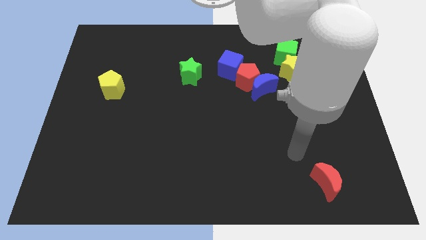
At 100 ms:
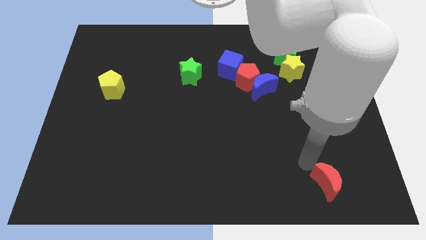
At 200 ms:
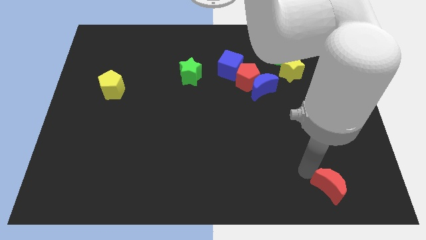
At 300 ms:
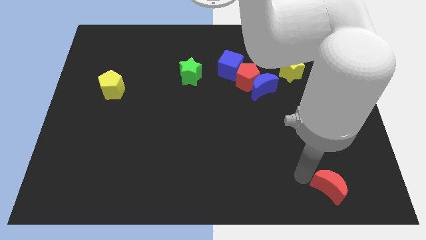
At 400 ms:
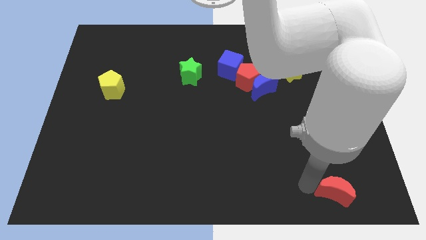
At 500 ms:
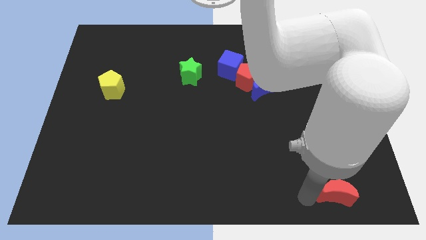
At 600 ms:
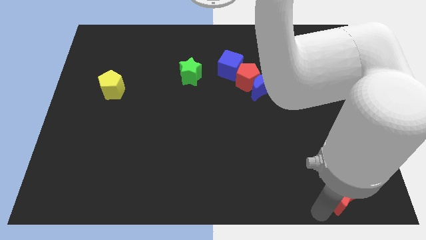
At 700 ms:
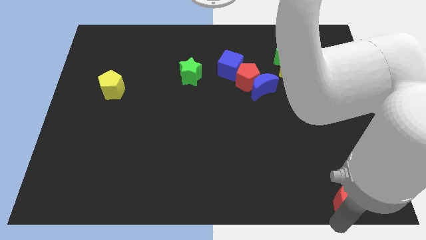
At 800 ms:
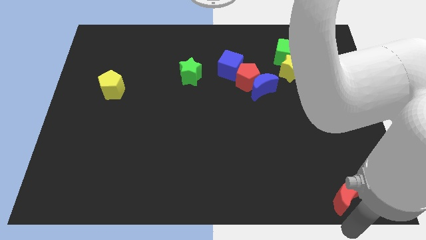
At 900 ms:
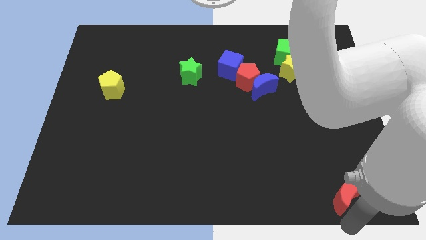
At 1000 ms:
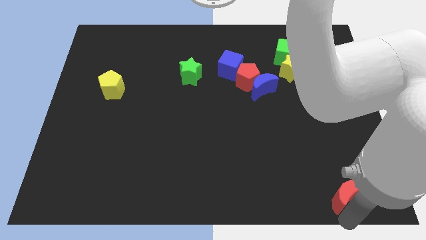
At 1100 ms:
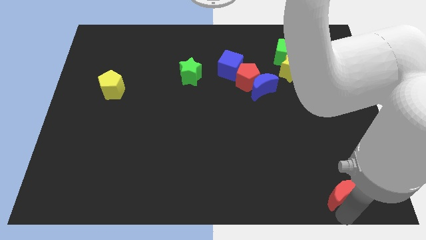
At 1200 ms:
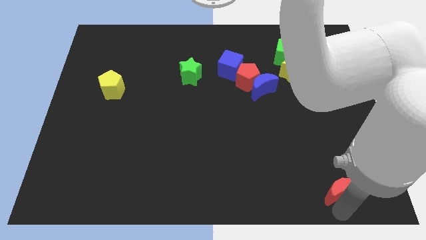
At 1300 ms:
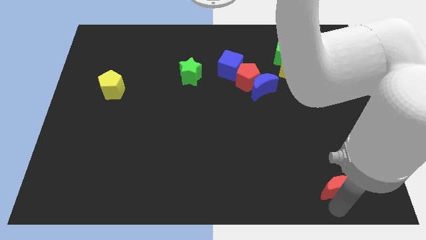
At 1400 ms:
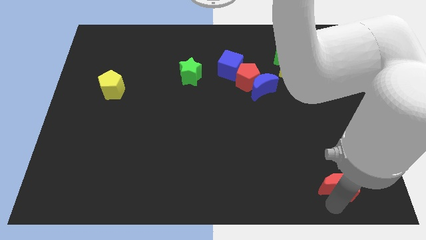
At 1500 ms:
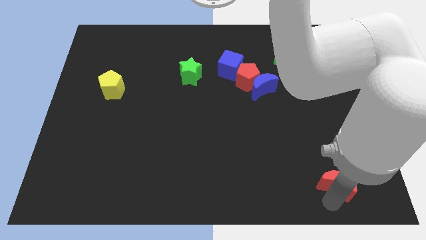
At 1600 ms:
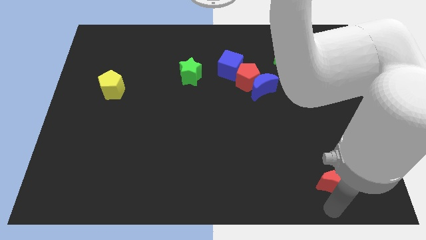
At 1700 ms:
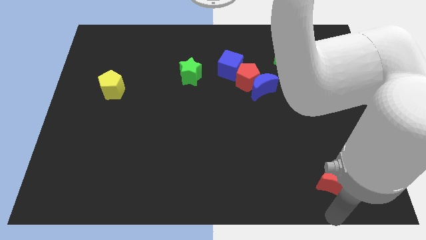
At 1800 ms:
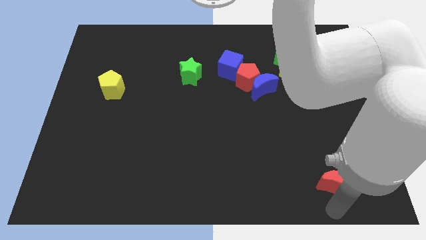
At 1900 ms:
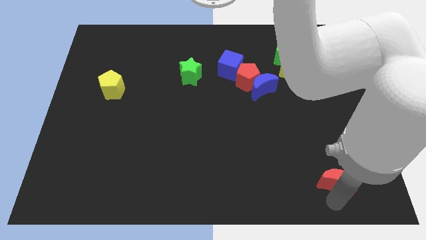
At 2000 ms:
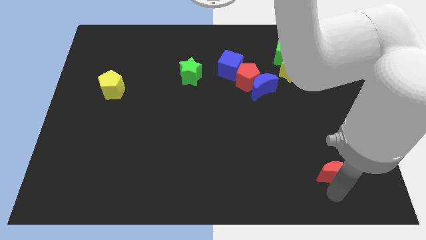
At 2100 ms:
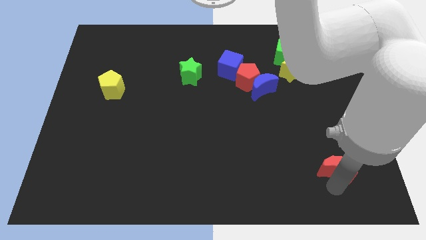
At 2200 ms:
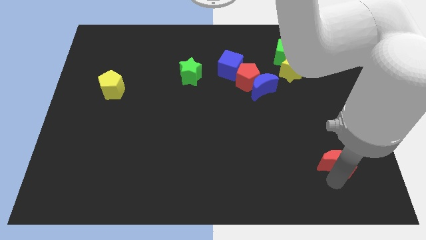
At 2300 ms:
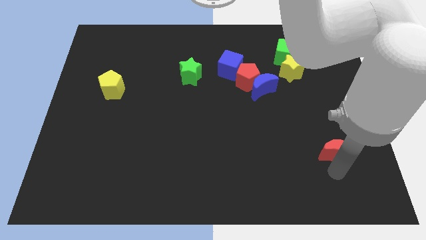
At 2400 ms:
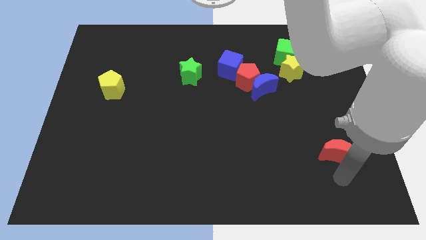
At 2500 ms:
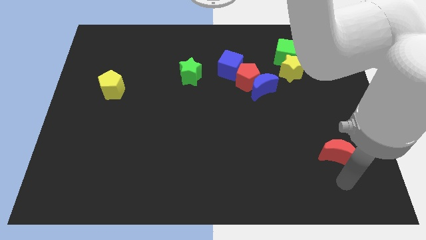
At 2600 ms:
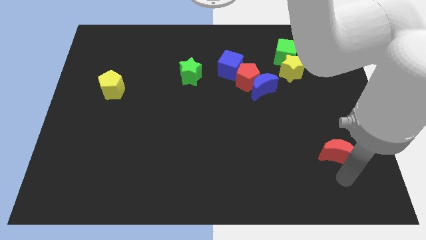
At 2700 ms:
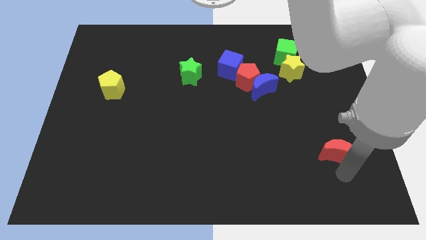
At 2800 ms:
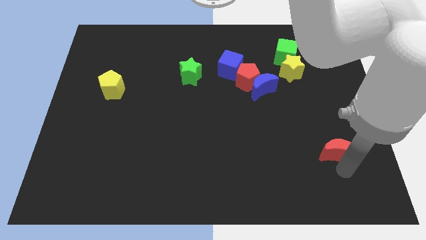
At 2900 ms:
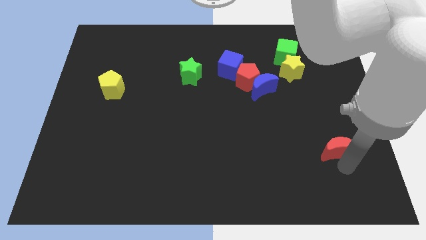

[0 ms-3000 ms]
slide the red moon slightly upwards

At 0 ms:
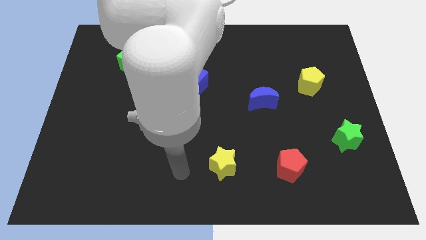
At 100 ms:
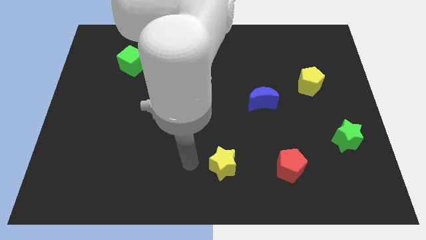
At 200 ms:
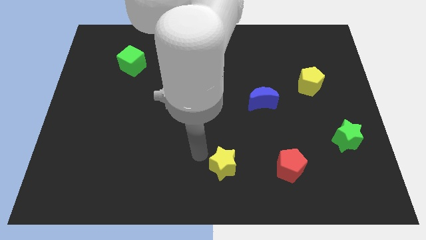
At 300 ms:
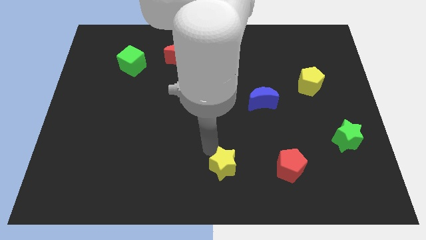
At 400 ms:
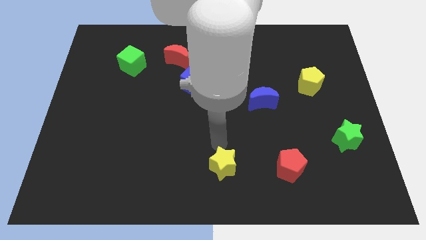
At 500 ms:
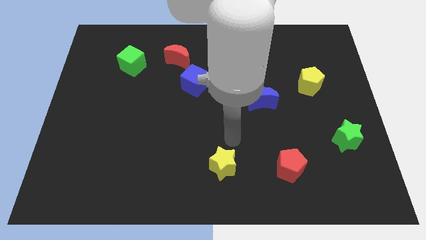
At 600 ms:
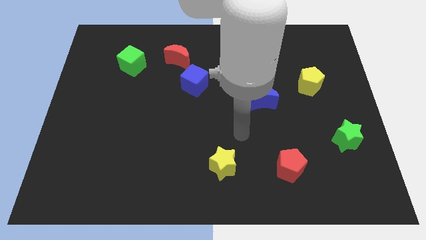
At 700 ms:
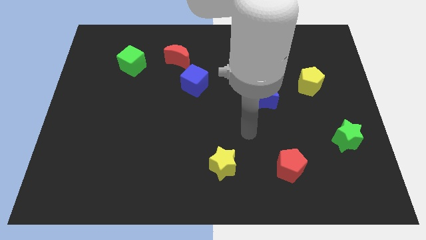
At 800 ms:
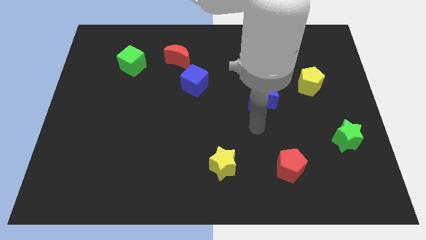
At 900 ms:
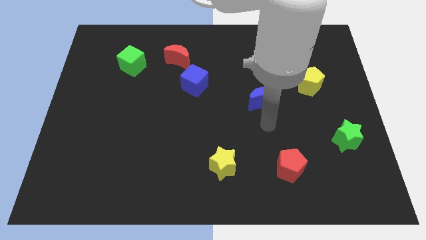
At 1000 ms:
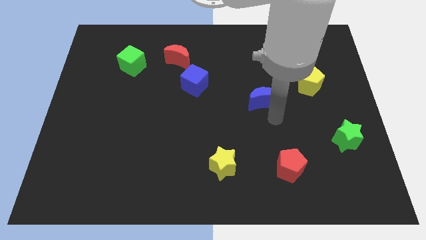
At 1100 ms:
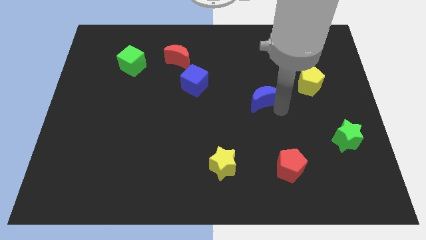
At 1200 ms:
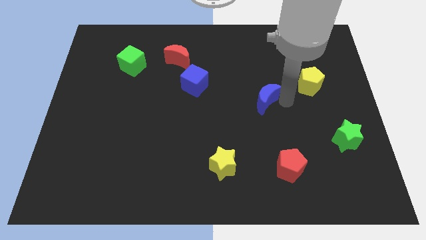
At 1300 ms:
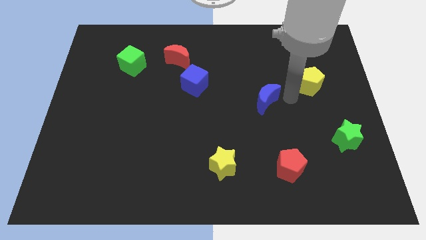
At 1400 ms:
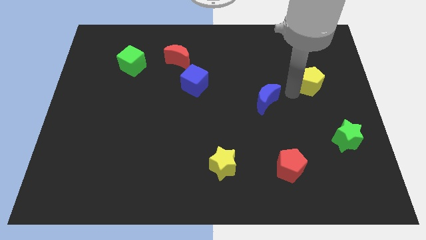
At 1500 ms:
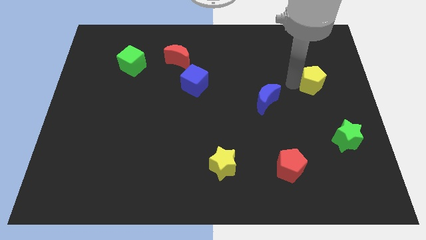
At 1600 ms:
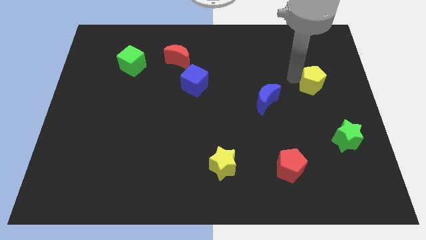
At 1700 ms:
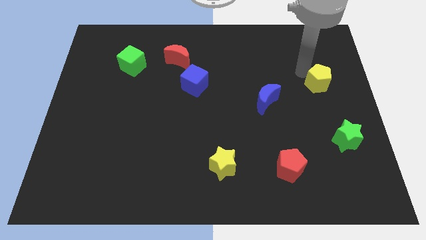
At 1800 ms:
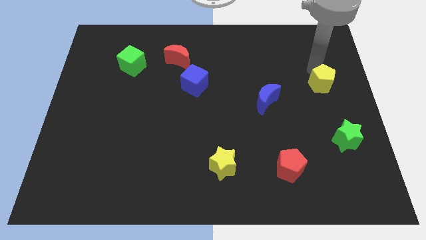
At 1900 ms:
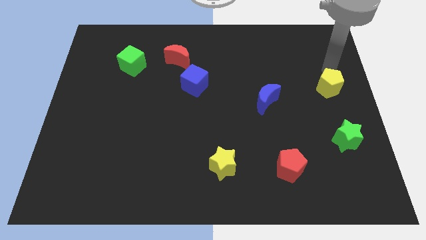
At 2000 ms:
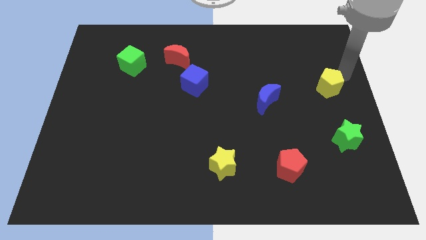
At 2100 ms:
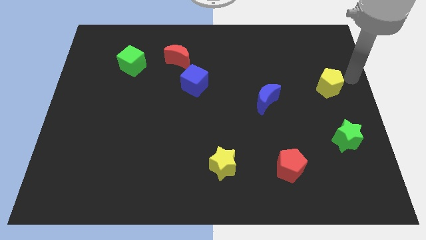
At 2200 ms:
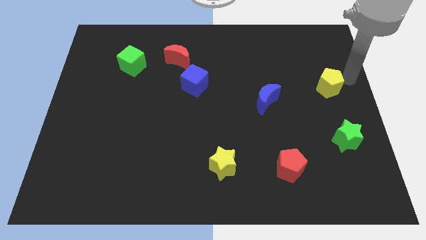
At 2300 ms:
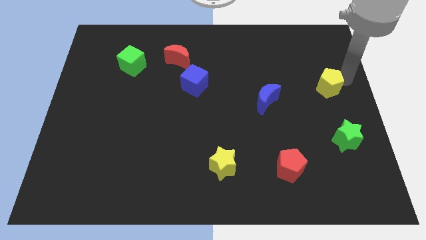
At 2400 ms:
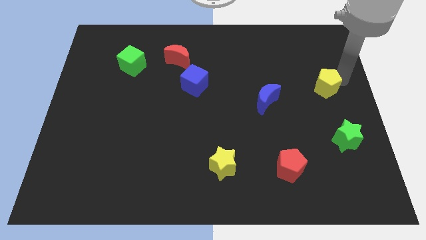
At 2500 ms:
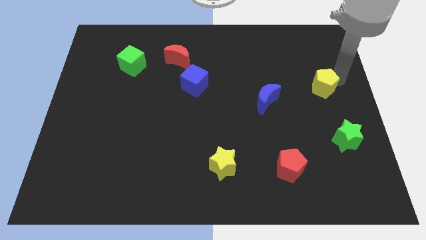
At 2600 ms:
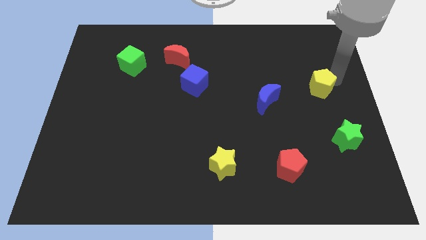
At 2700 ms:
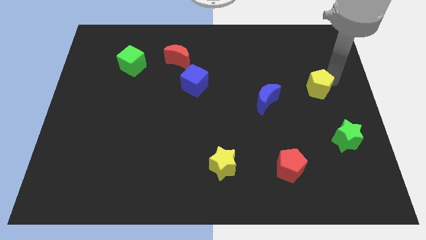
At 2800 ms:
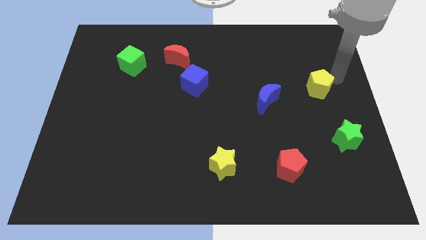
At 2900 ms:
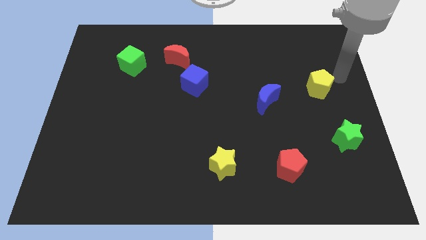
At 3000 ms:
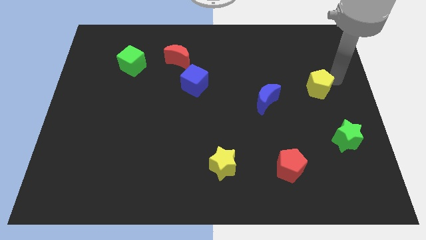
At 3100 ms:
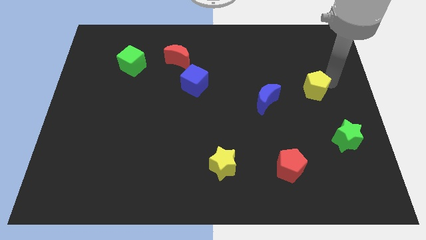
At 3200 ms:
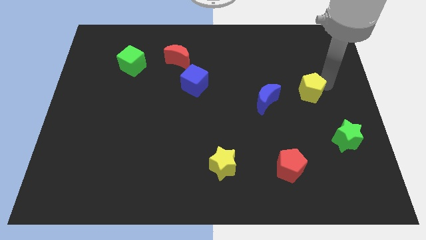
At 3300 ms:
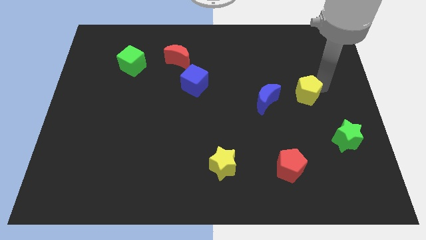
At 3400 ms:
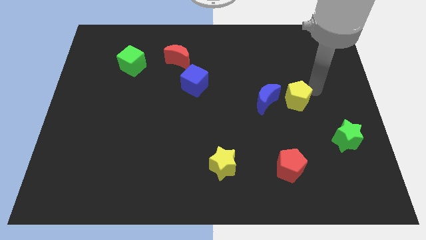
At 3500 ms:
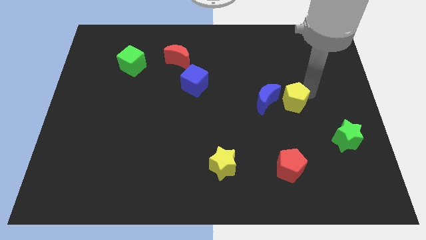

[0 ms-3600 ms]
move the yellow pentagon slightly down and then left

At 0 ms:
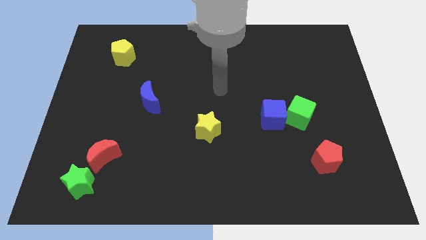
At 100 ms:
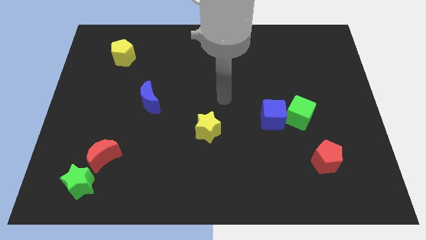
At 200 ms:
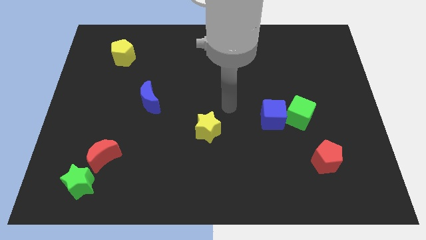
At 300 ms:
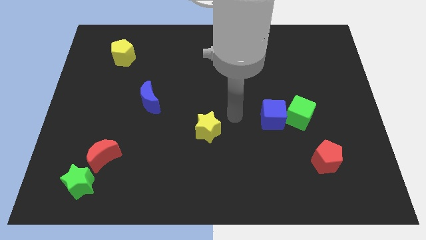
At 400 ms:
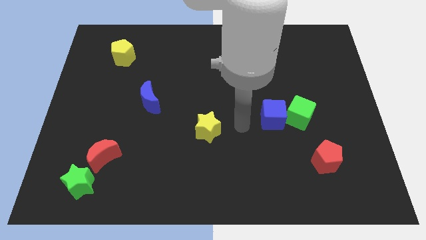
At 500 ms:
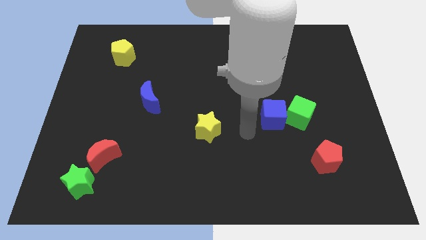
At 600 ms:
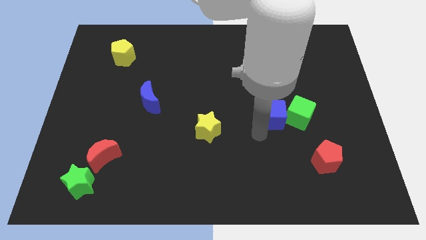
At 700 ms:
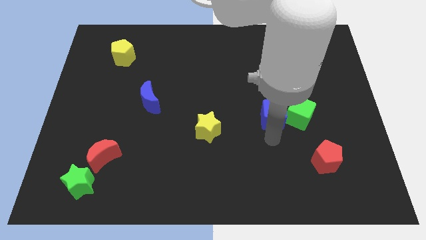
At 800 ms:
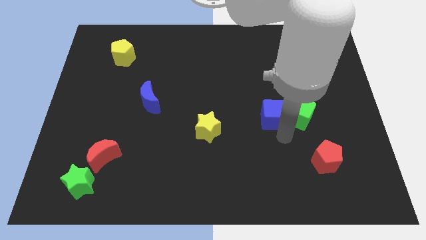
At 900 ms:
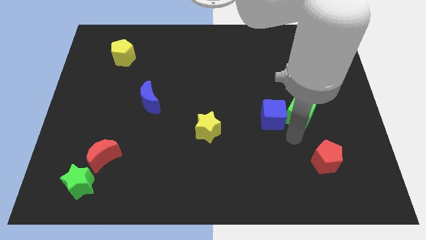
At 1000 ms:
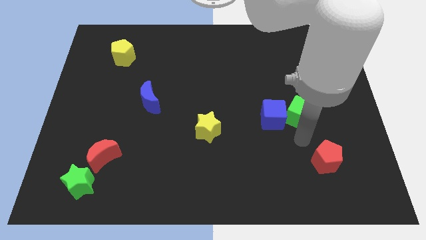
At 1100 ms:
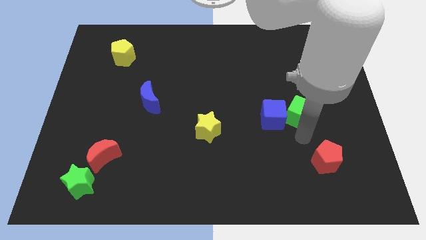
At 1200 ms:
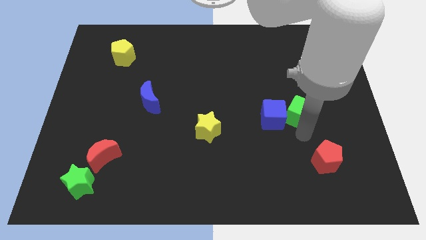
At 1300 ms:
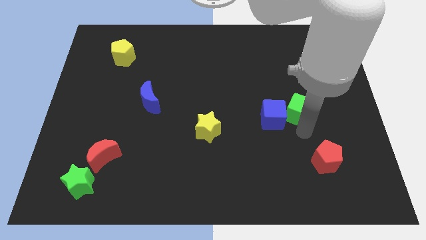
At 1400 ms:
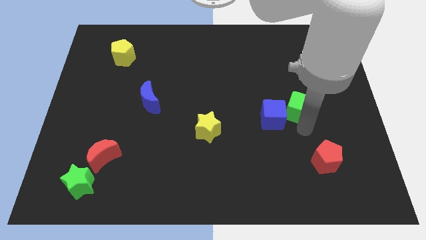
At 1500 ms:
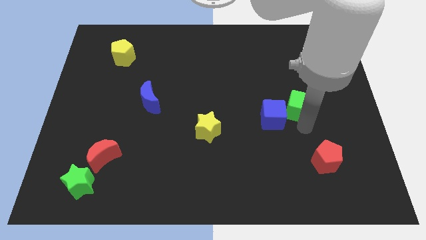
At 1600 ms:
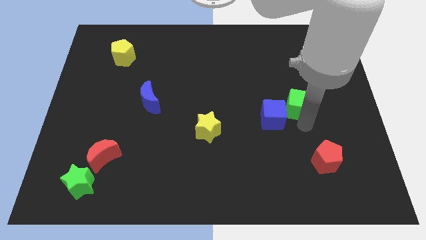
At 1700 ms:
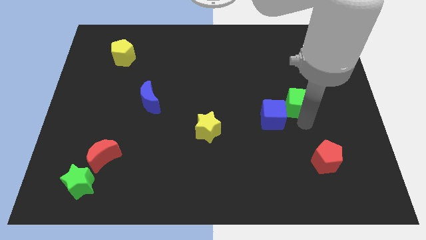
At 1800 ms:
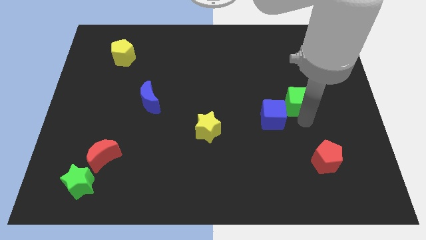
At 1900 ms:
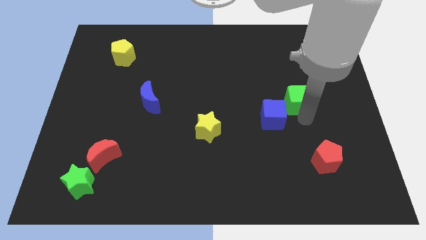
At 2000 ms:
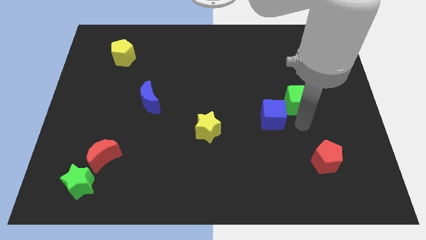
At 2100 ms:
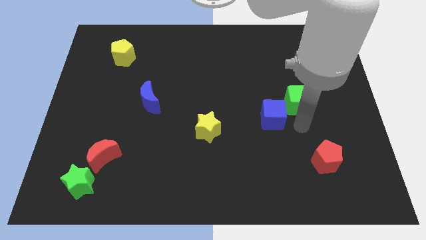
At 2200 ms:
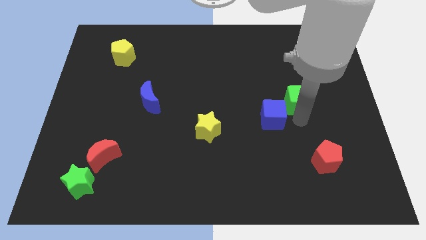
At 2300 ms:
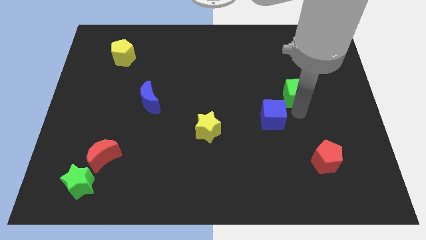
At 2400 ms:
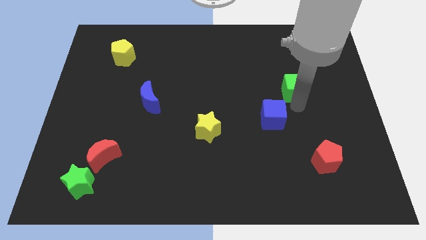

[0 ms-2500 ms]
push the green cube slightly up
